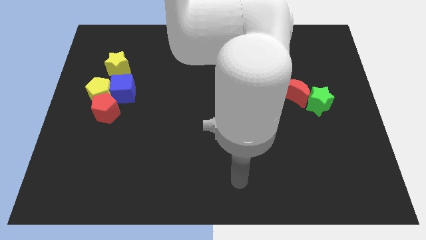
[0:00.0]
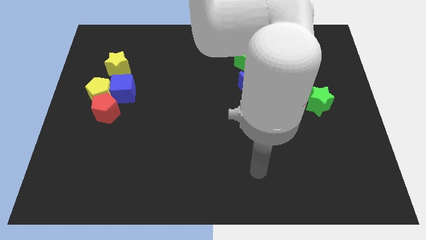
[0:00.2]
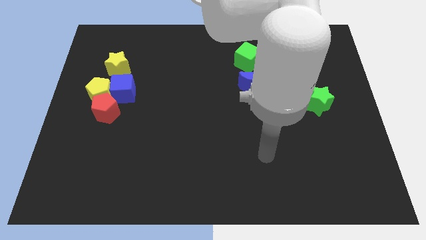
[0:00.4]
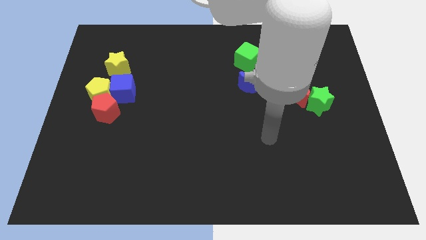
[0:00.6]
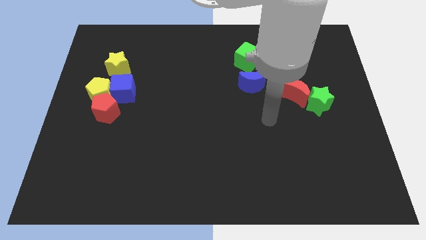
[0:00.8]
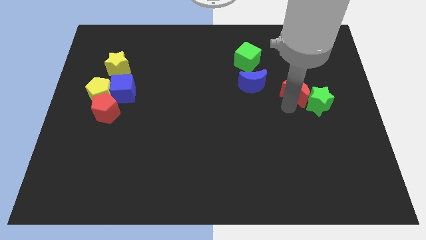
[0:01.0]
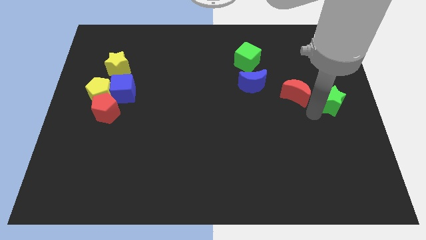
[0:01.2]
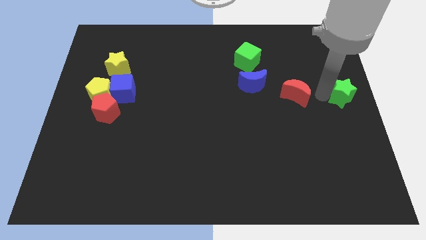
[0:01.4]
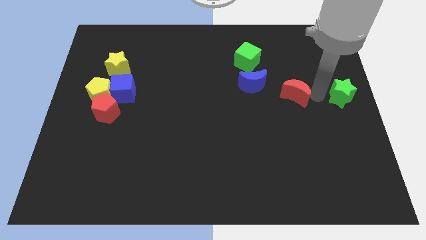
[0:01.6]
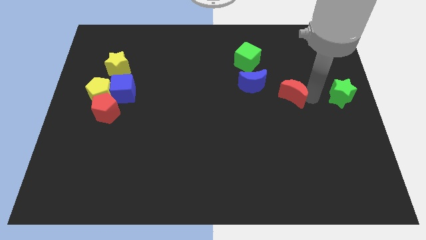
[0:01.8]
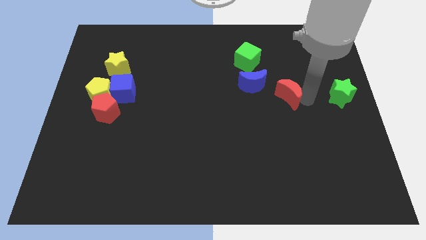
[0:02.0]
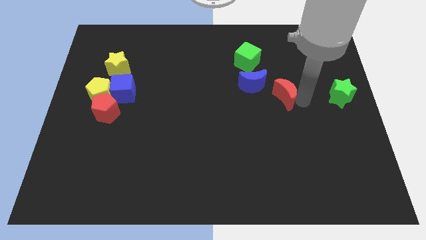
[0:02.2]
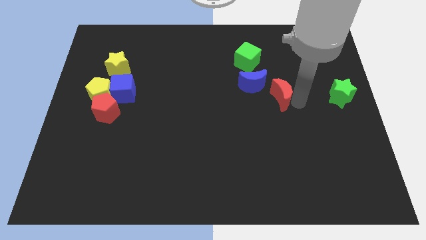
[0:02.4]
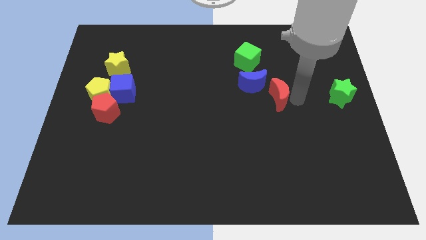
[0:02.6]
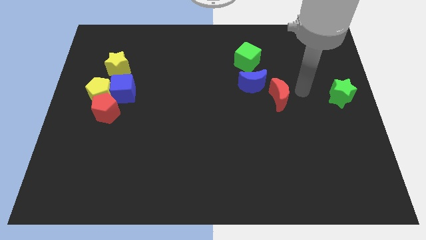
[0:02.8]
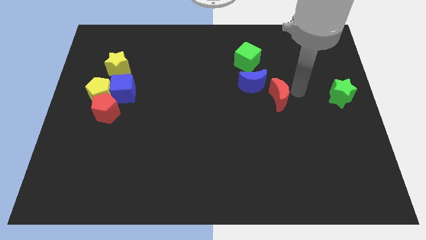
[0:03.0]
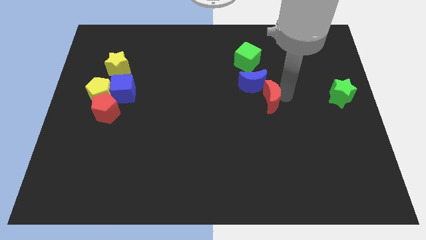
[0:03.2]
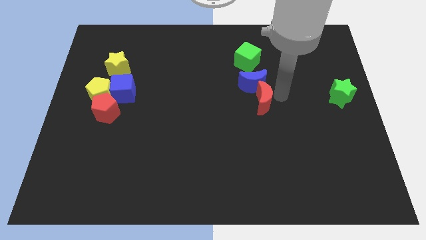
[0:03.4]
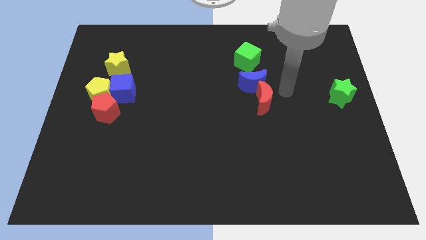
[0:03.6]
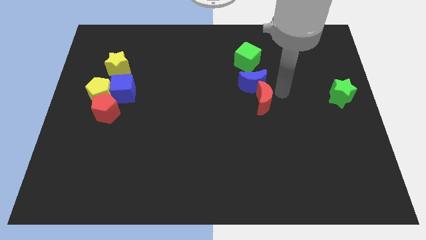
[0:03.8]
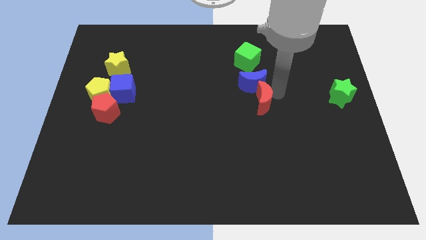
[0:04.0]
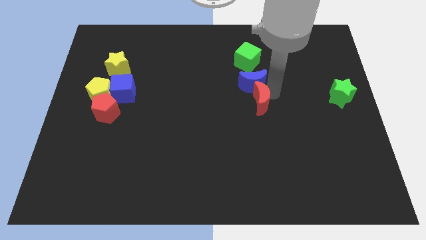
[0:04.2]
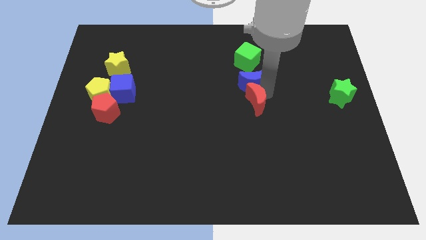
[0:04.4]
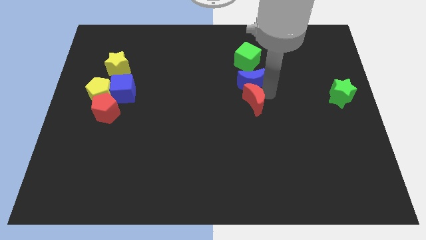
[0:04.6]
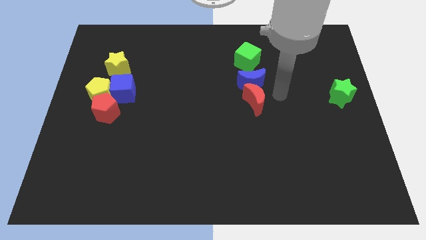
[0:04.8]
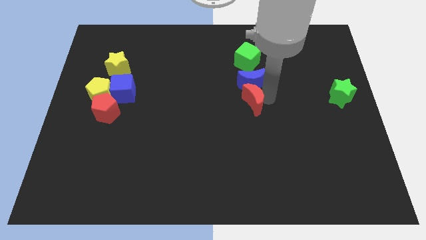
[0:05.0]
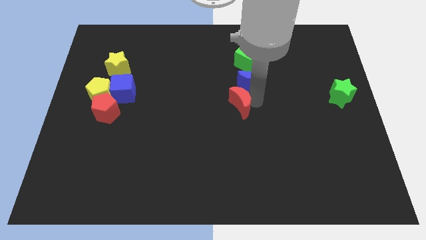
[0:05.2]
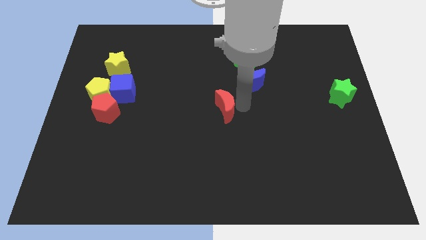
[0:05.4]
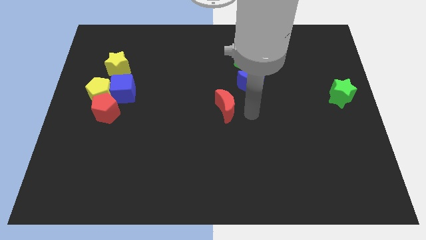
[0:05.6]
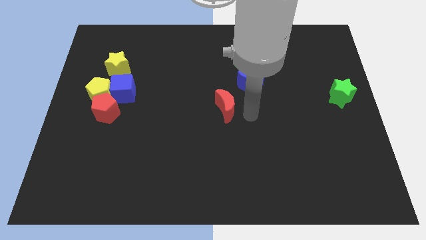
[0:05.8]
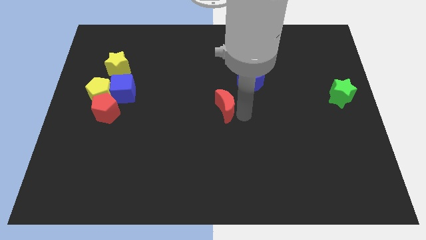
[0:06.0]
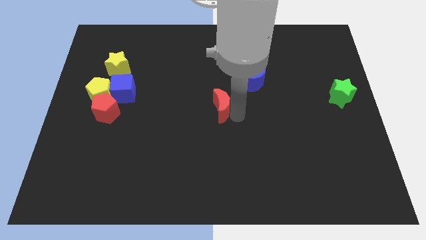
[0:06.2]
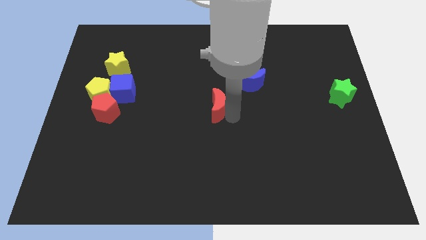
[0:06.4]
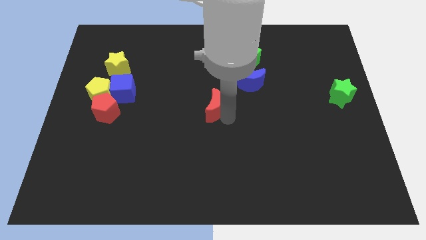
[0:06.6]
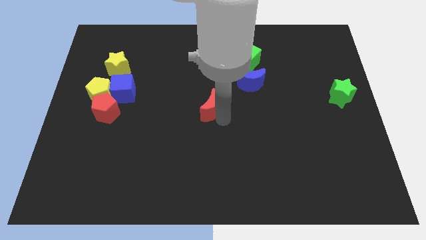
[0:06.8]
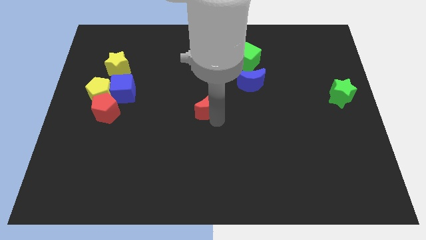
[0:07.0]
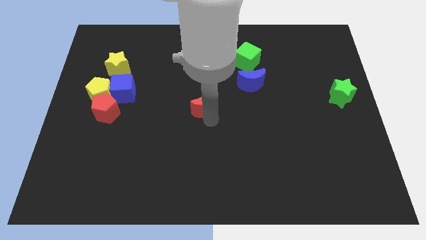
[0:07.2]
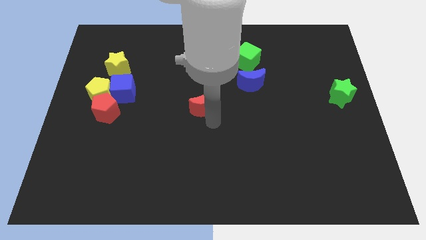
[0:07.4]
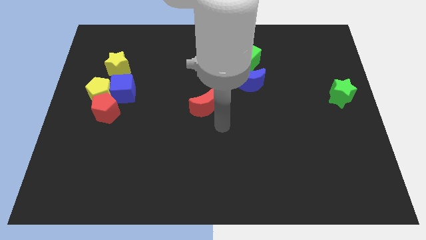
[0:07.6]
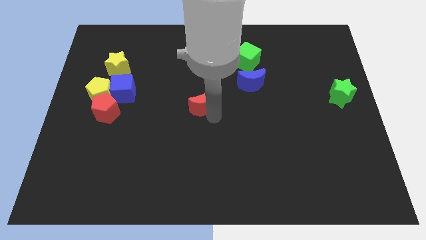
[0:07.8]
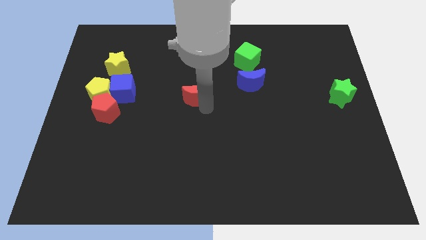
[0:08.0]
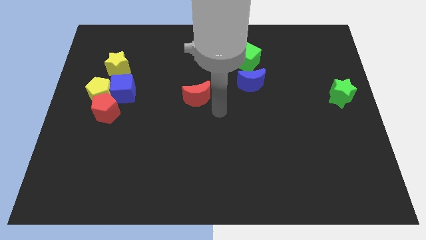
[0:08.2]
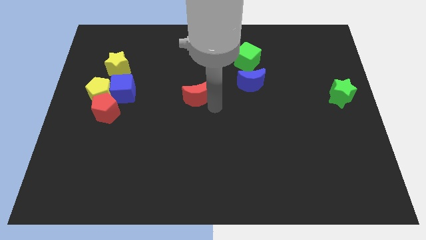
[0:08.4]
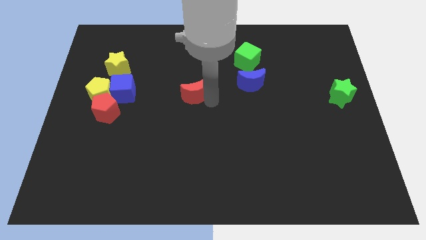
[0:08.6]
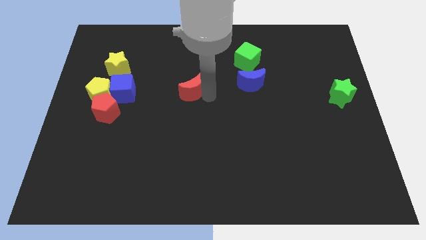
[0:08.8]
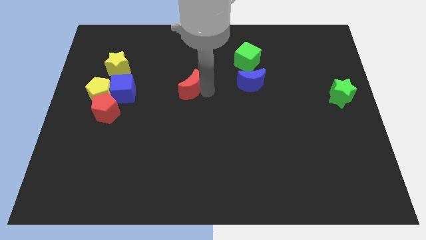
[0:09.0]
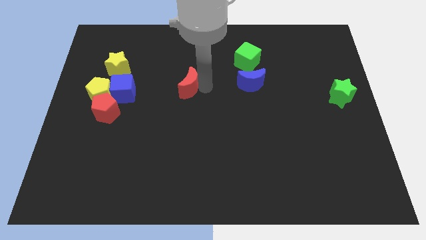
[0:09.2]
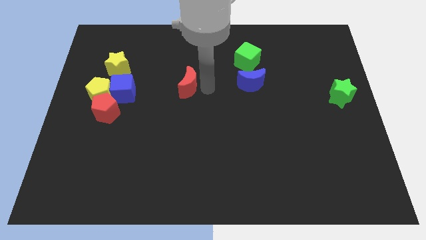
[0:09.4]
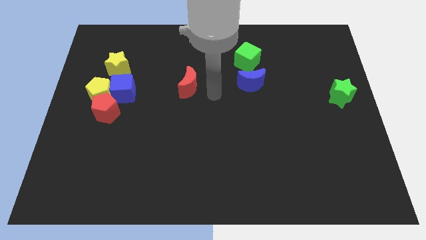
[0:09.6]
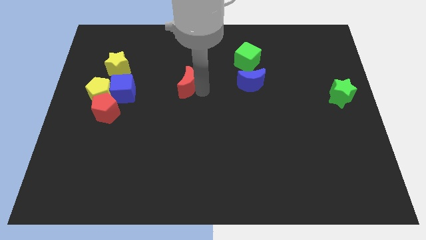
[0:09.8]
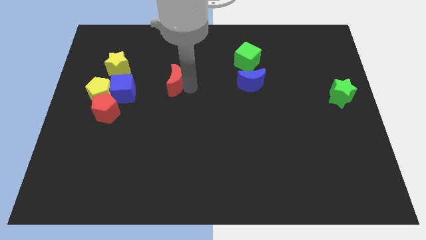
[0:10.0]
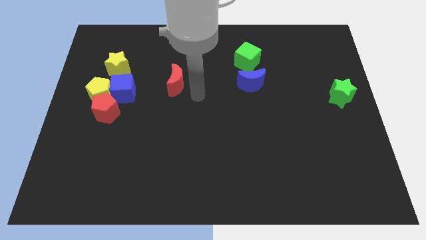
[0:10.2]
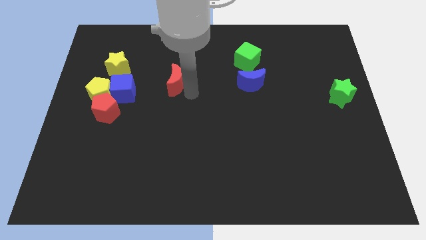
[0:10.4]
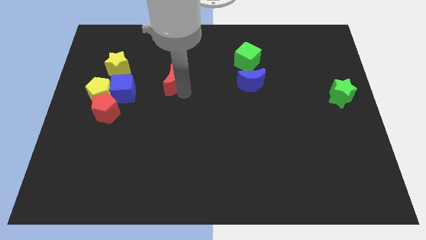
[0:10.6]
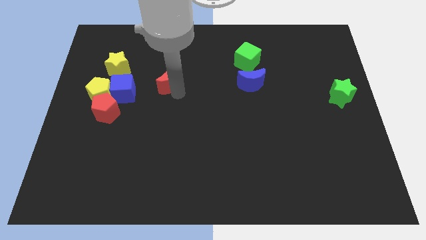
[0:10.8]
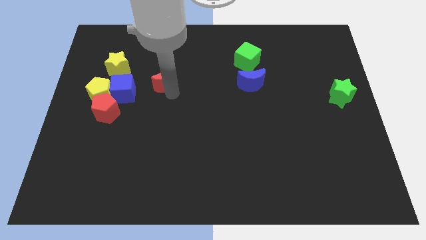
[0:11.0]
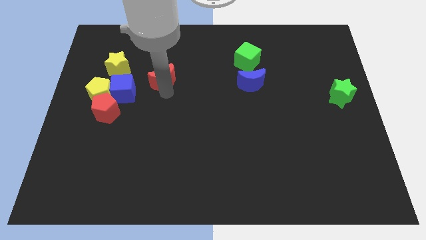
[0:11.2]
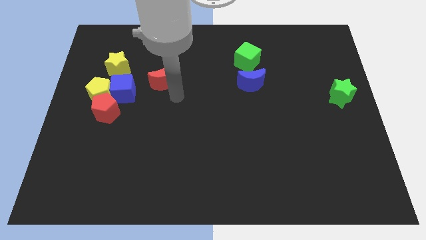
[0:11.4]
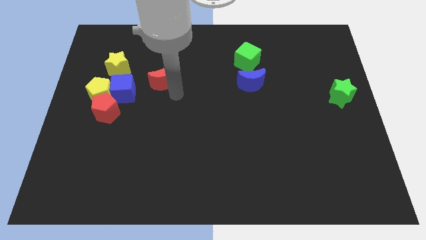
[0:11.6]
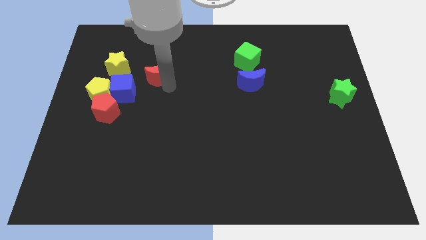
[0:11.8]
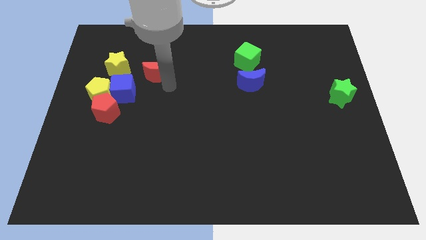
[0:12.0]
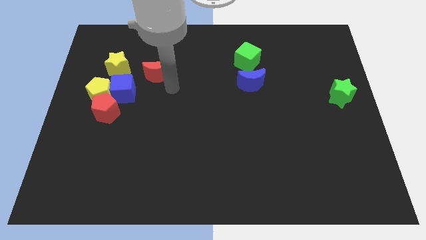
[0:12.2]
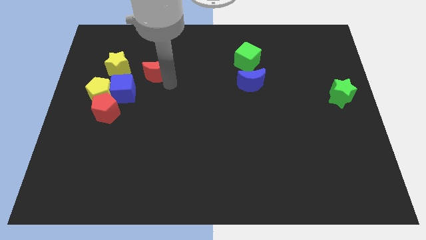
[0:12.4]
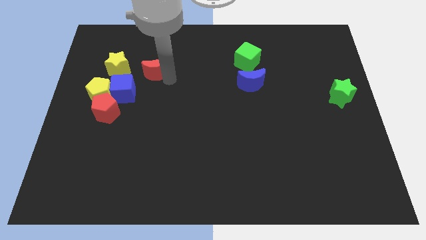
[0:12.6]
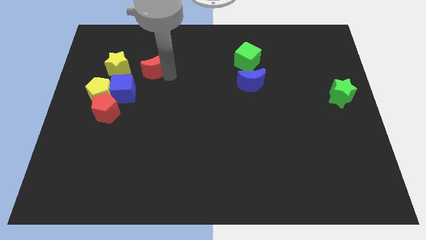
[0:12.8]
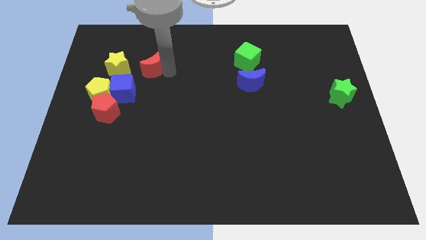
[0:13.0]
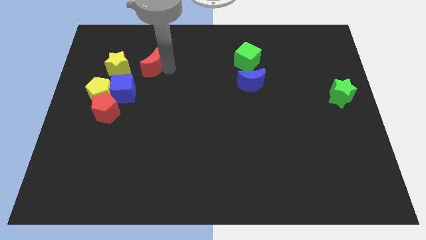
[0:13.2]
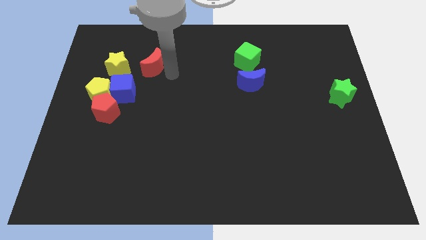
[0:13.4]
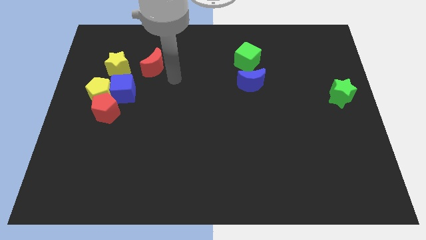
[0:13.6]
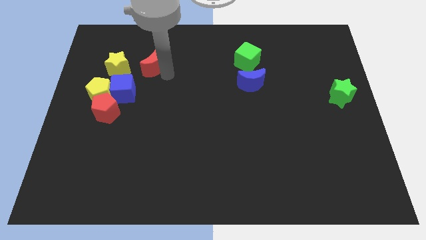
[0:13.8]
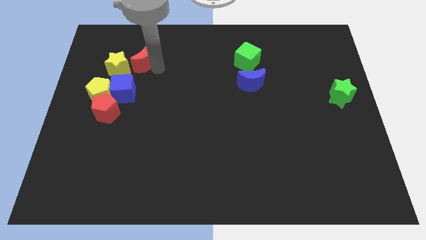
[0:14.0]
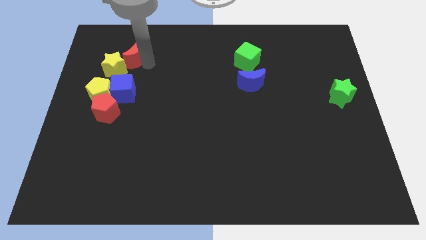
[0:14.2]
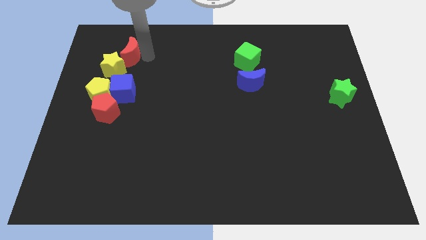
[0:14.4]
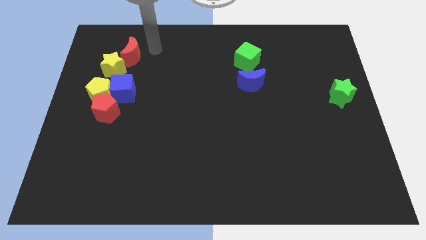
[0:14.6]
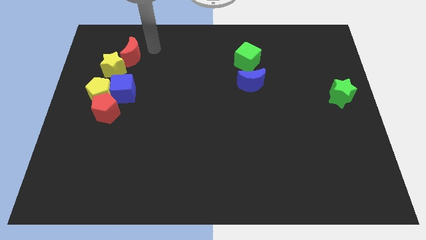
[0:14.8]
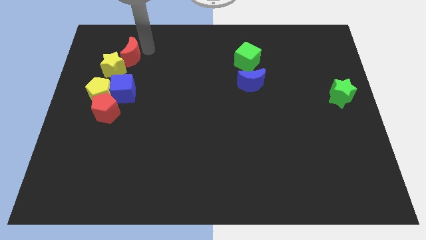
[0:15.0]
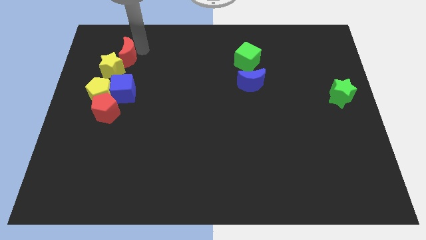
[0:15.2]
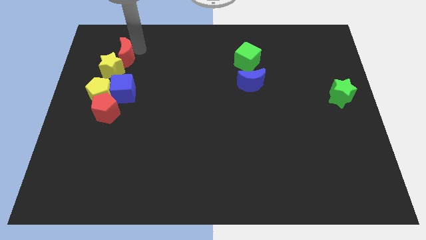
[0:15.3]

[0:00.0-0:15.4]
push the red moon to the top side of the yellow pentagon
